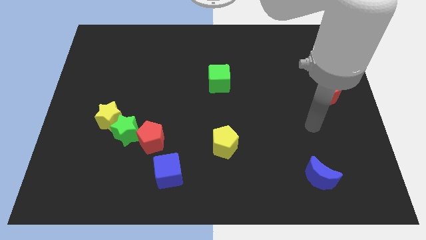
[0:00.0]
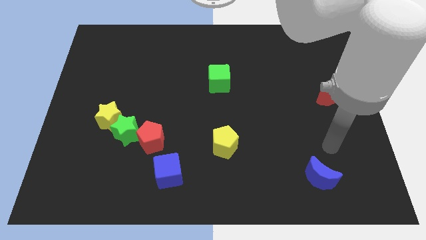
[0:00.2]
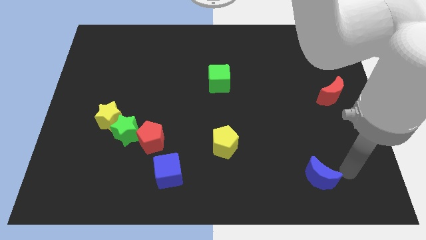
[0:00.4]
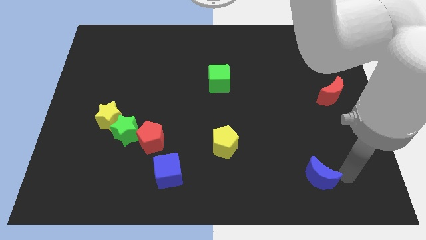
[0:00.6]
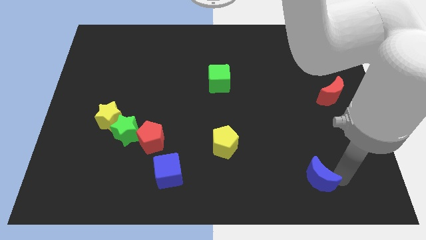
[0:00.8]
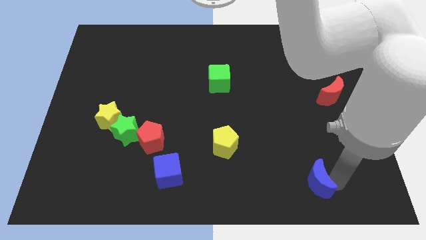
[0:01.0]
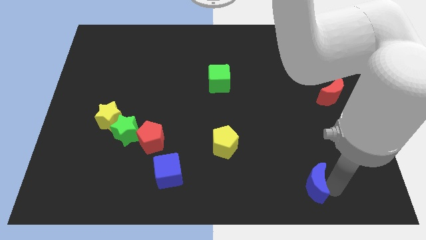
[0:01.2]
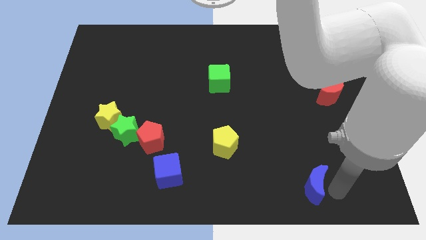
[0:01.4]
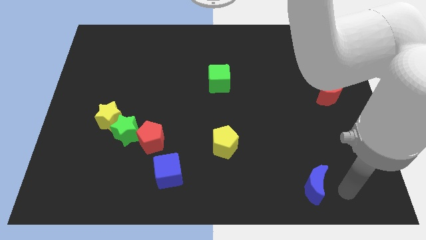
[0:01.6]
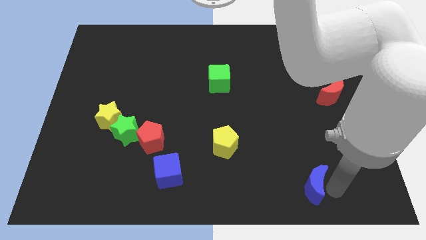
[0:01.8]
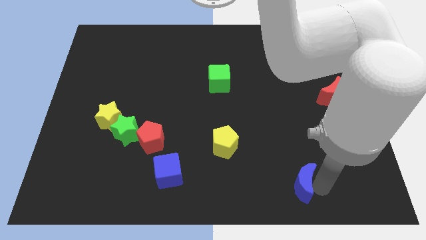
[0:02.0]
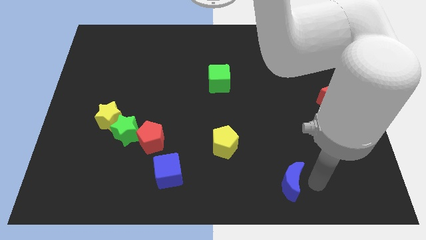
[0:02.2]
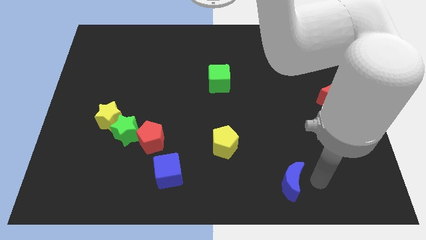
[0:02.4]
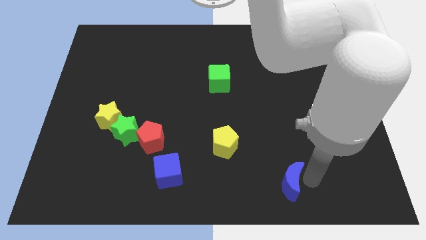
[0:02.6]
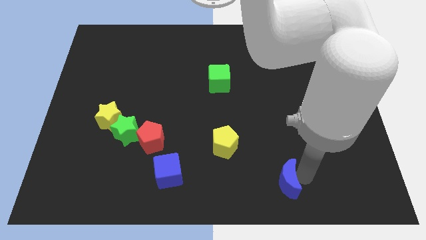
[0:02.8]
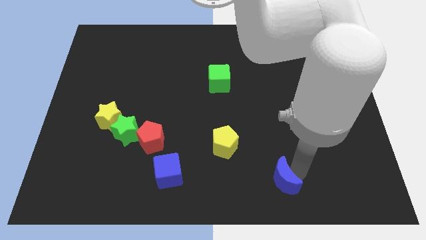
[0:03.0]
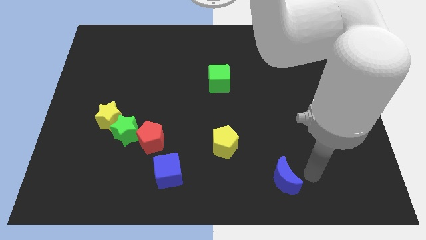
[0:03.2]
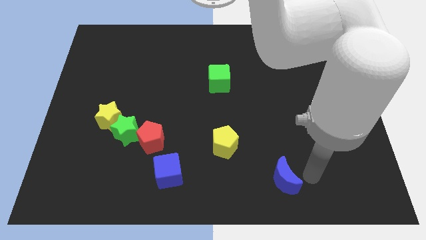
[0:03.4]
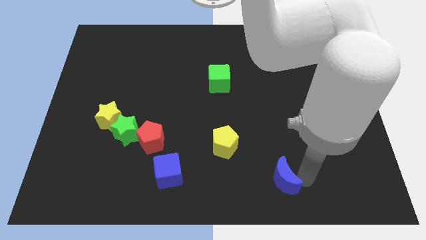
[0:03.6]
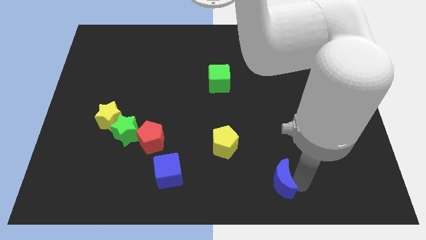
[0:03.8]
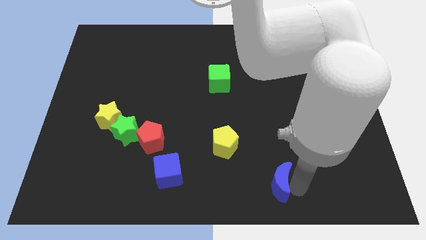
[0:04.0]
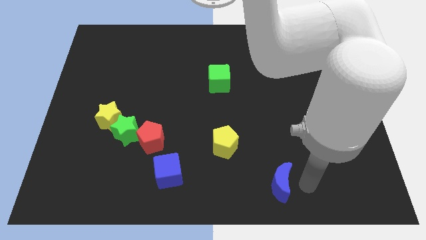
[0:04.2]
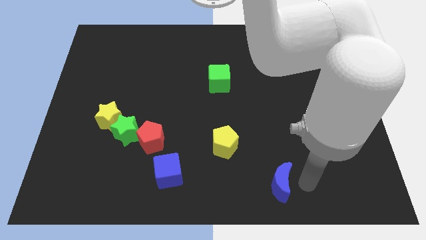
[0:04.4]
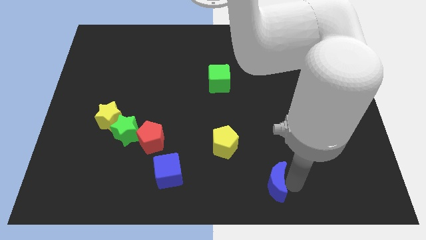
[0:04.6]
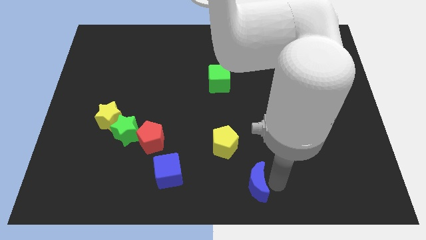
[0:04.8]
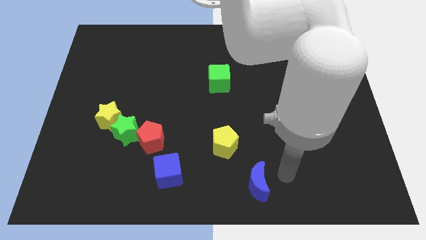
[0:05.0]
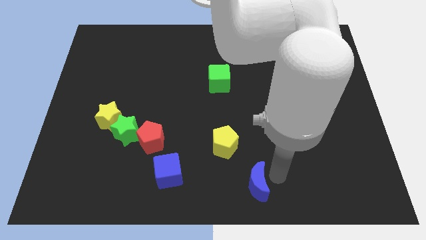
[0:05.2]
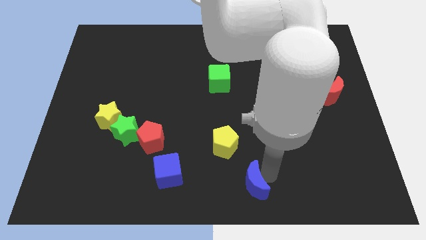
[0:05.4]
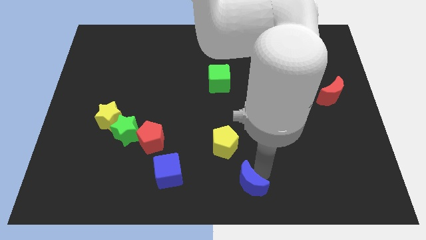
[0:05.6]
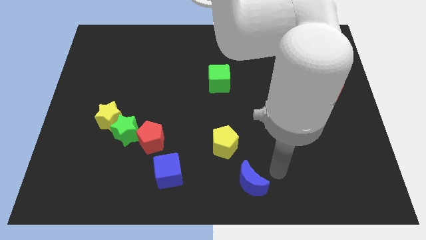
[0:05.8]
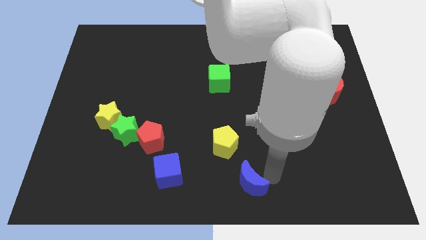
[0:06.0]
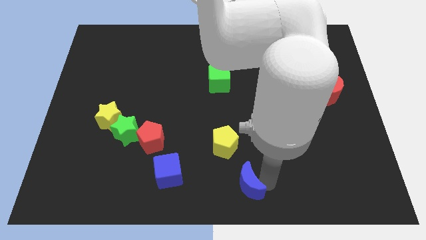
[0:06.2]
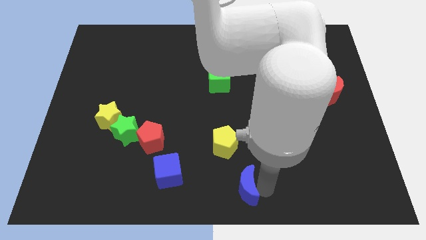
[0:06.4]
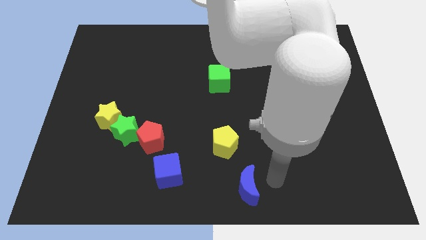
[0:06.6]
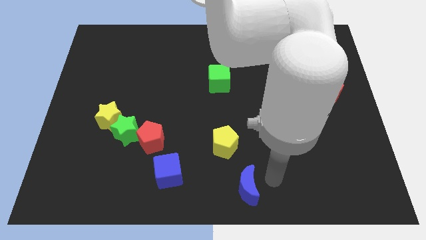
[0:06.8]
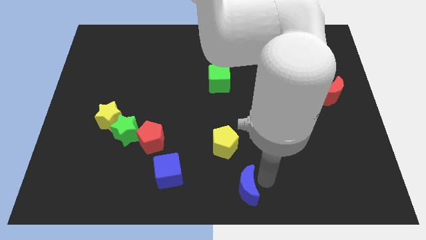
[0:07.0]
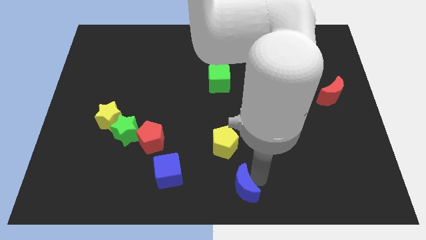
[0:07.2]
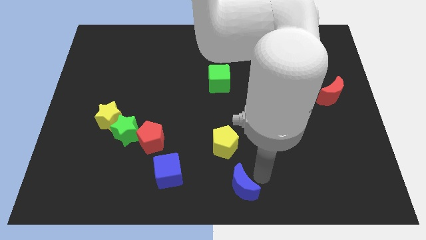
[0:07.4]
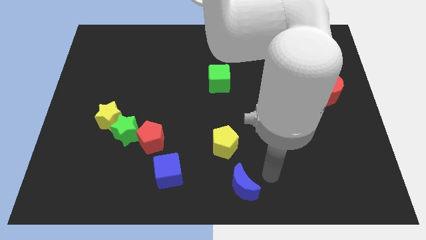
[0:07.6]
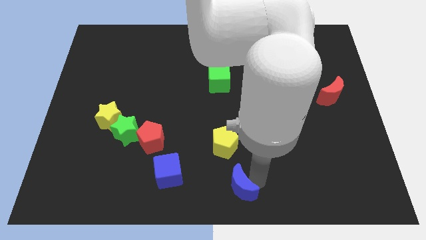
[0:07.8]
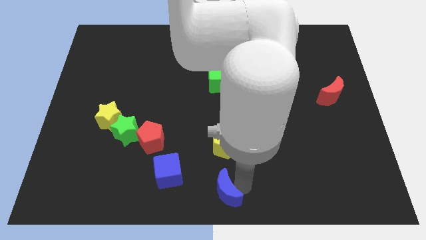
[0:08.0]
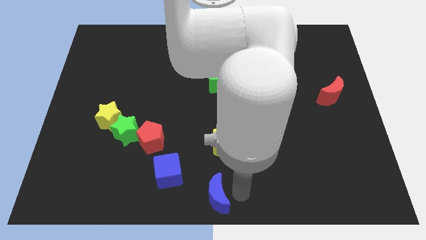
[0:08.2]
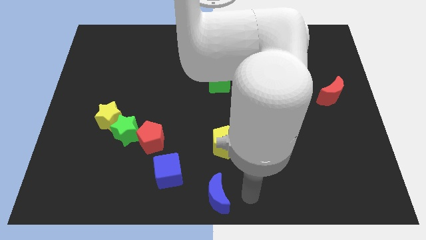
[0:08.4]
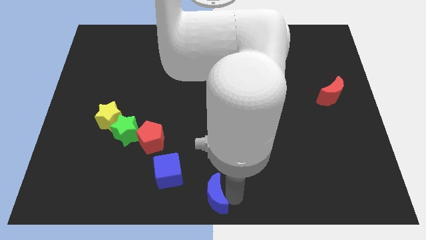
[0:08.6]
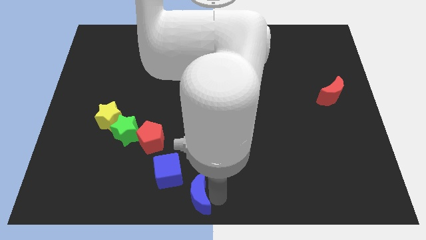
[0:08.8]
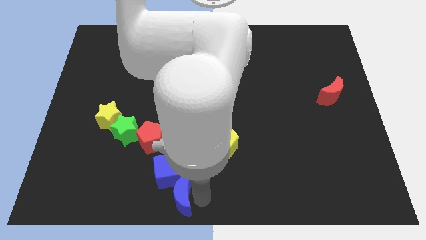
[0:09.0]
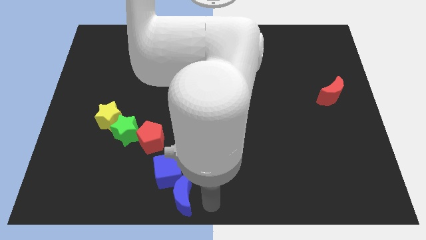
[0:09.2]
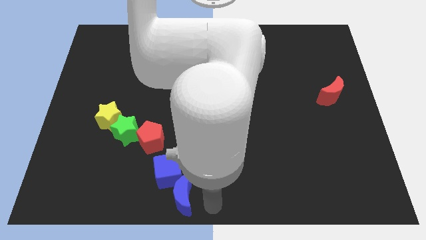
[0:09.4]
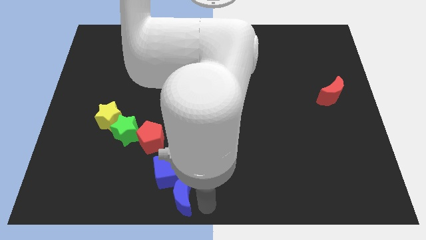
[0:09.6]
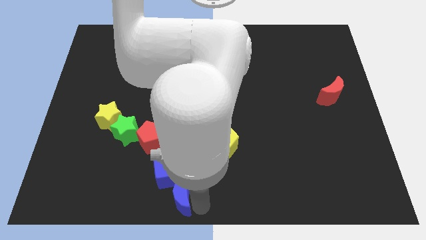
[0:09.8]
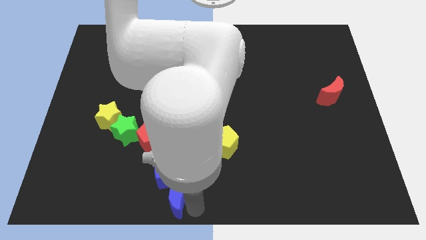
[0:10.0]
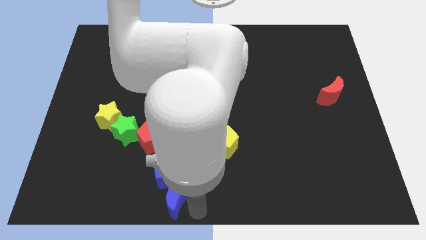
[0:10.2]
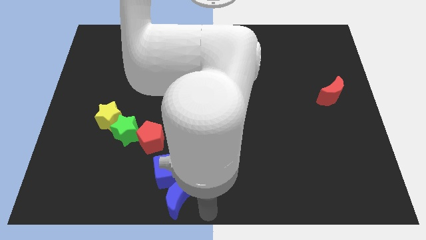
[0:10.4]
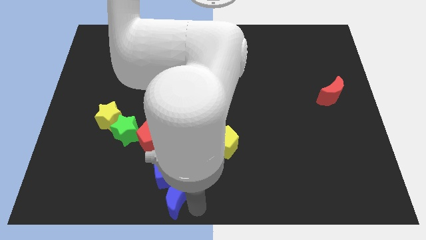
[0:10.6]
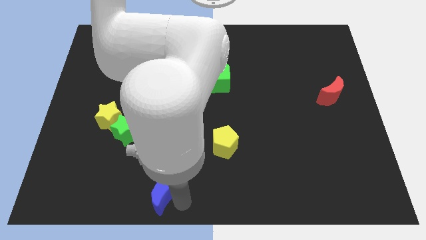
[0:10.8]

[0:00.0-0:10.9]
slide the blue moon to the bottom side of the red pentagon

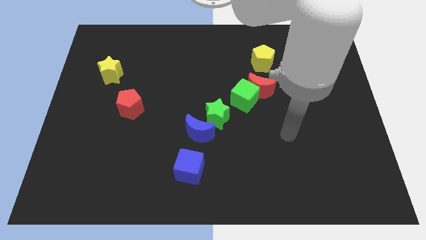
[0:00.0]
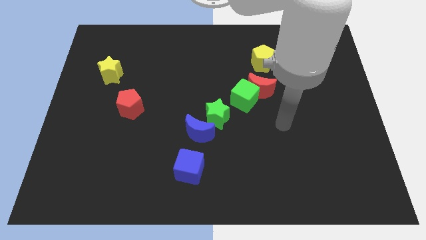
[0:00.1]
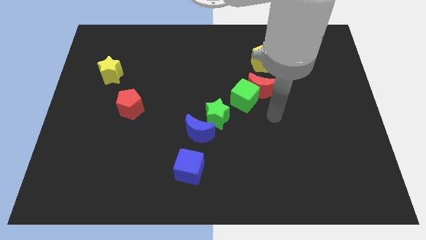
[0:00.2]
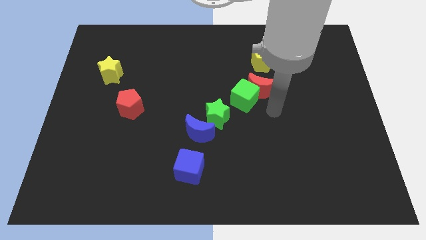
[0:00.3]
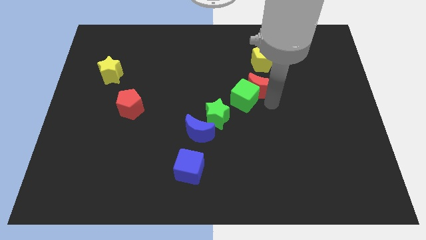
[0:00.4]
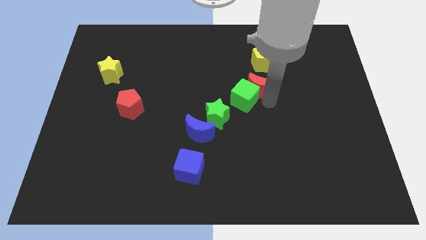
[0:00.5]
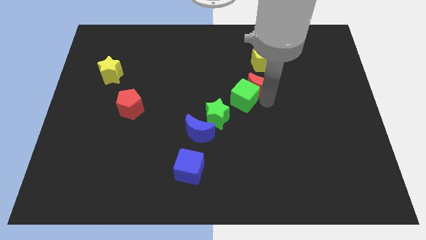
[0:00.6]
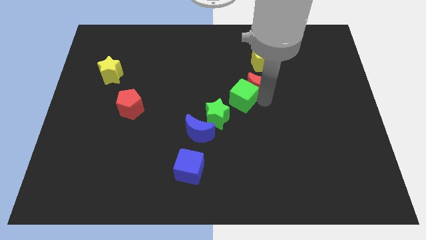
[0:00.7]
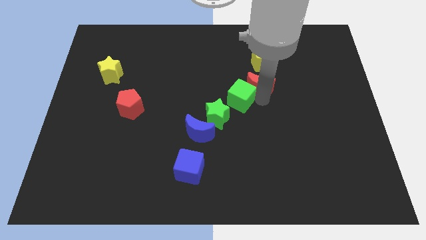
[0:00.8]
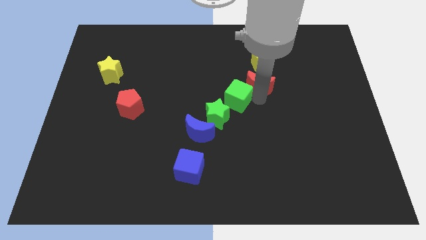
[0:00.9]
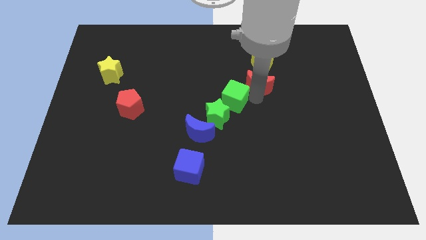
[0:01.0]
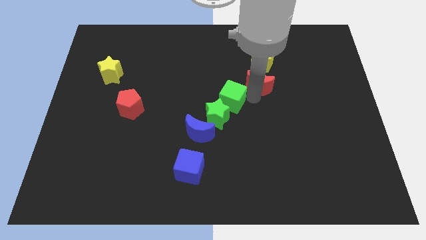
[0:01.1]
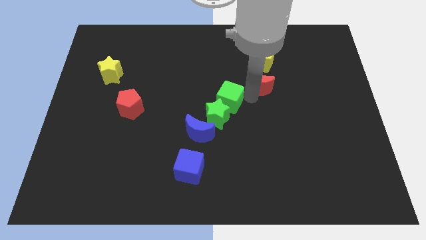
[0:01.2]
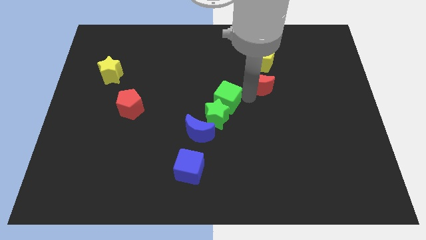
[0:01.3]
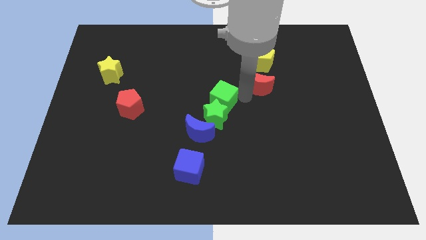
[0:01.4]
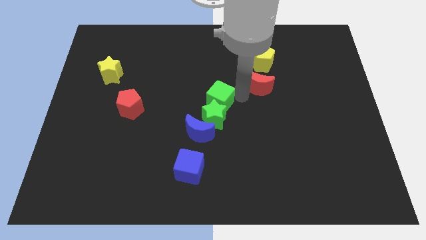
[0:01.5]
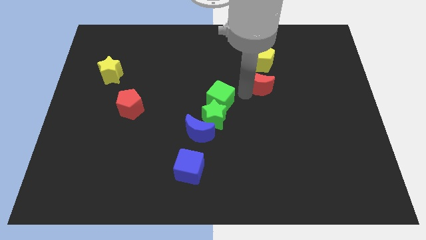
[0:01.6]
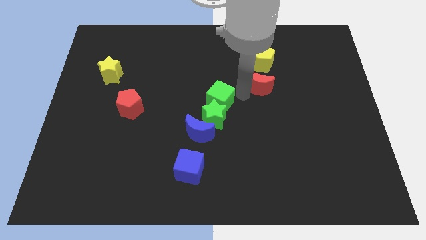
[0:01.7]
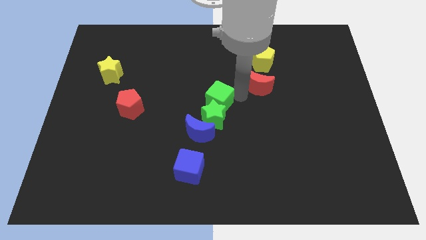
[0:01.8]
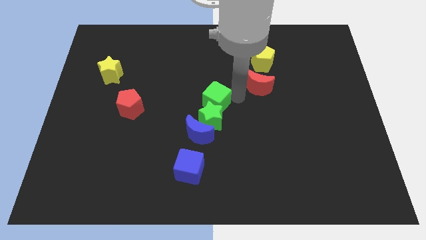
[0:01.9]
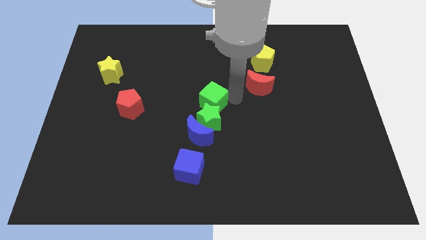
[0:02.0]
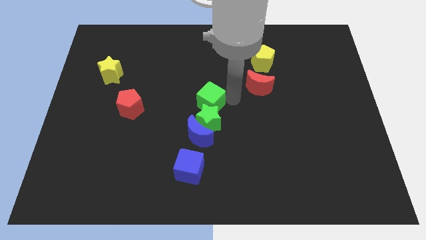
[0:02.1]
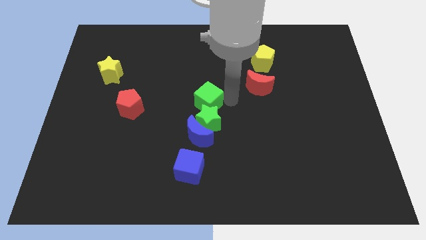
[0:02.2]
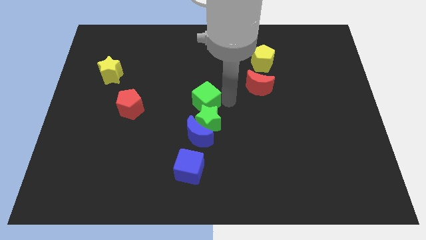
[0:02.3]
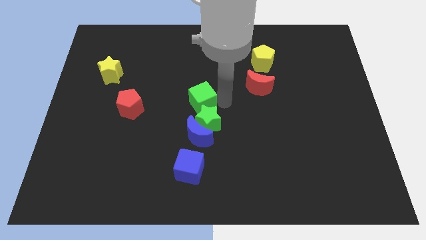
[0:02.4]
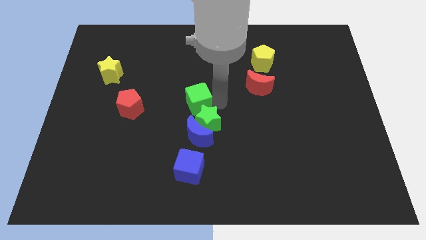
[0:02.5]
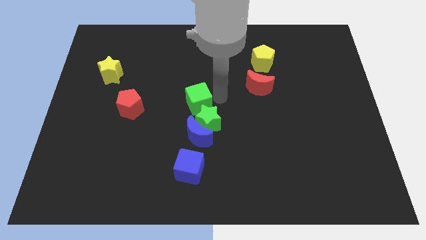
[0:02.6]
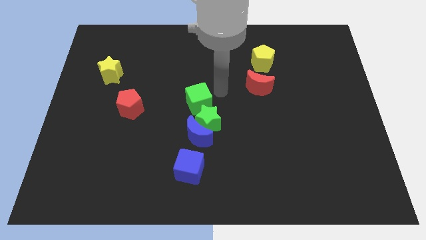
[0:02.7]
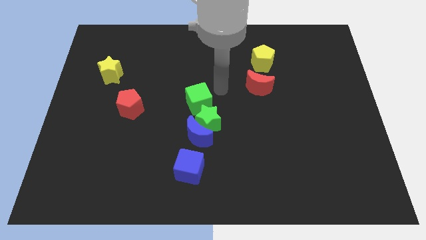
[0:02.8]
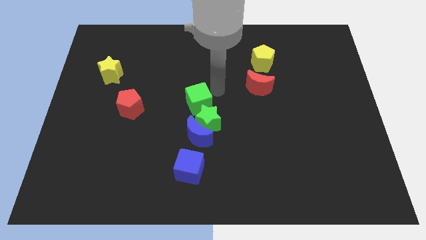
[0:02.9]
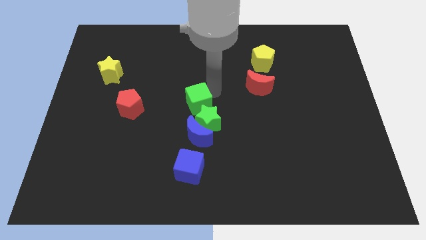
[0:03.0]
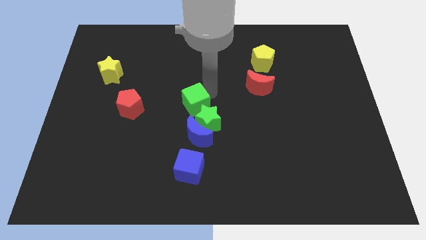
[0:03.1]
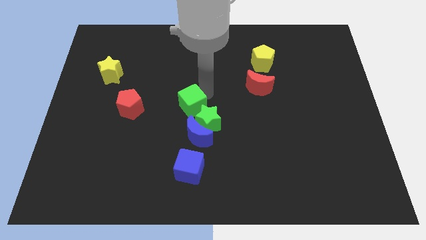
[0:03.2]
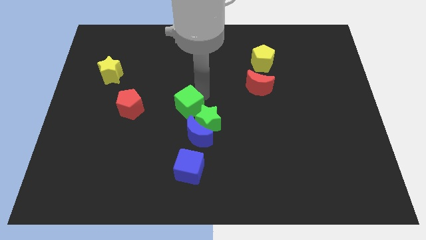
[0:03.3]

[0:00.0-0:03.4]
put the green cube left of the green star
